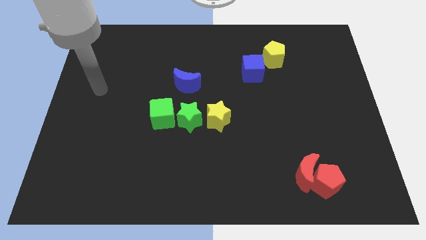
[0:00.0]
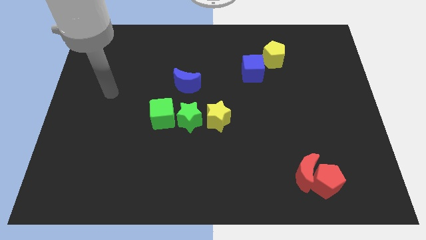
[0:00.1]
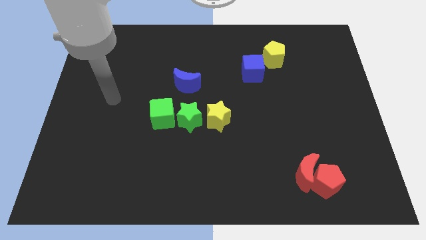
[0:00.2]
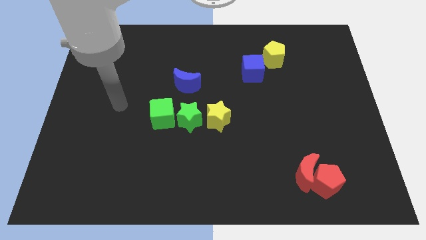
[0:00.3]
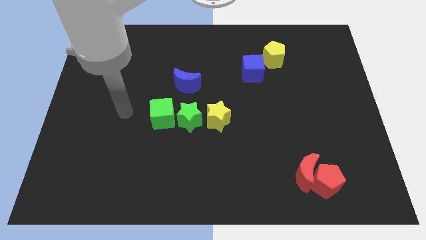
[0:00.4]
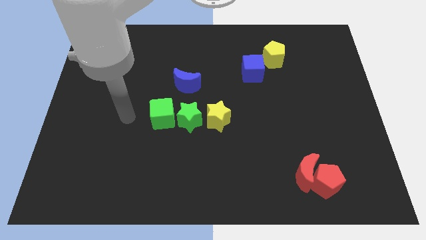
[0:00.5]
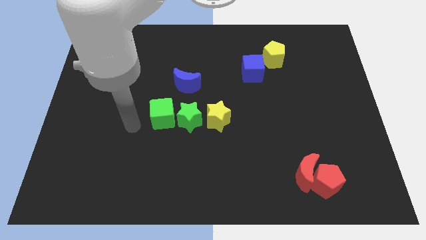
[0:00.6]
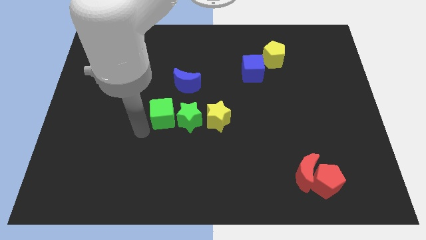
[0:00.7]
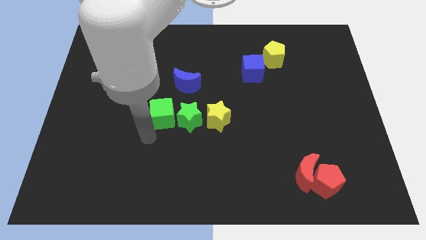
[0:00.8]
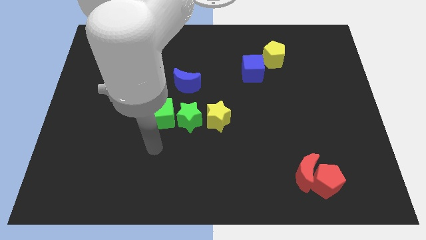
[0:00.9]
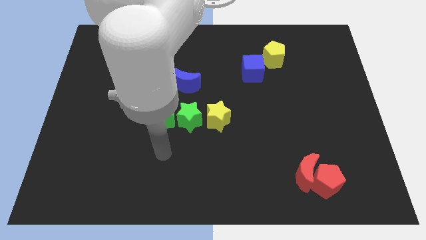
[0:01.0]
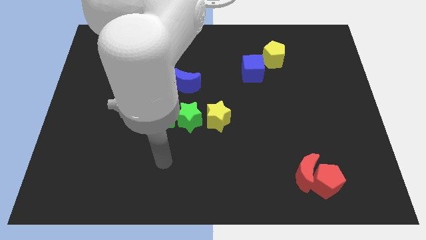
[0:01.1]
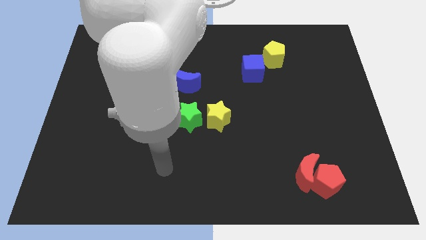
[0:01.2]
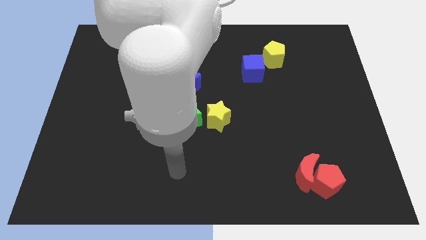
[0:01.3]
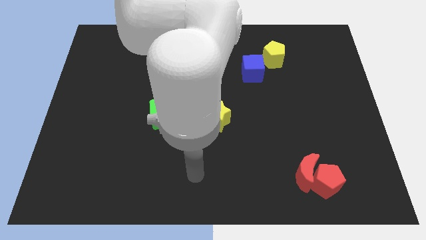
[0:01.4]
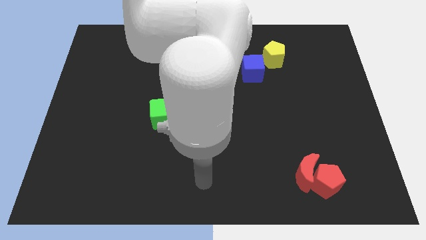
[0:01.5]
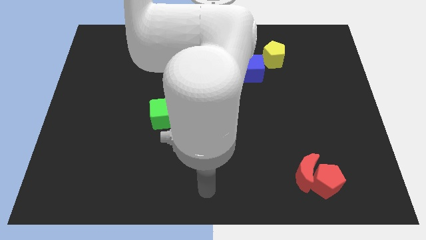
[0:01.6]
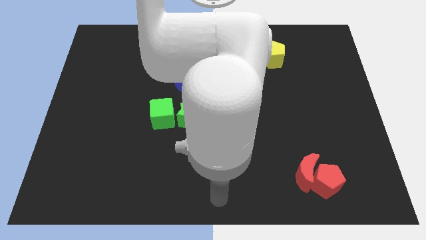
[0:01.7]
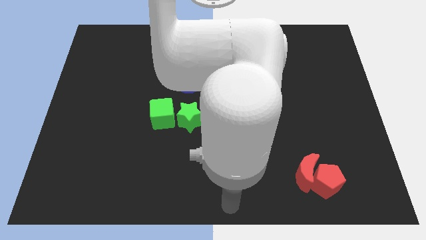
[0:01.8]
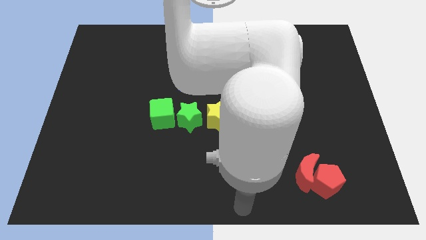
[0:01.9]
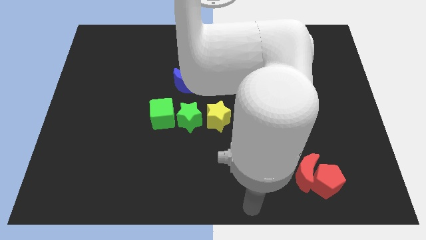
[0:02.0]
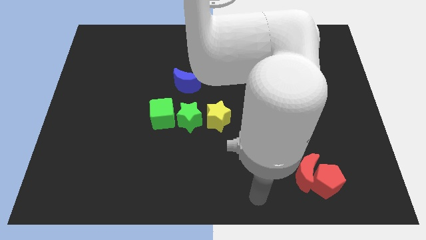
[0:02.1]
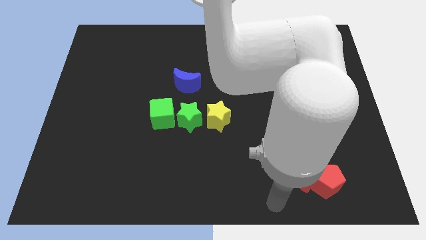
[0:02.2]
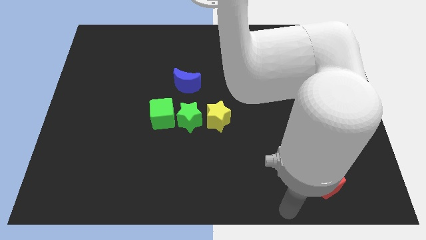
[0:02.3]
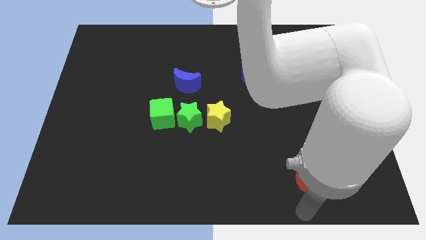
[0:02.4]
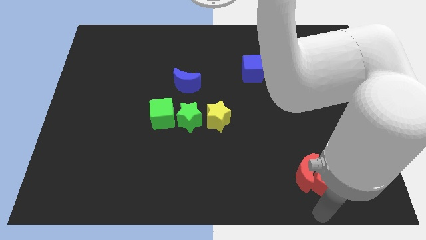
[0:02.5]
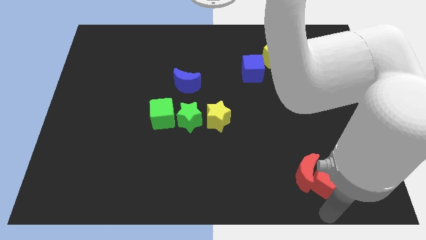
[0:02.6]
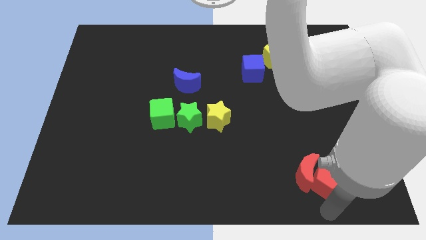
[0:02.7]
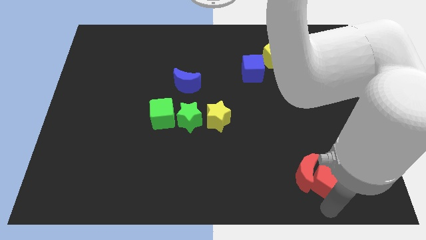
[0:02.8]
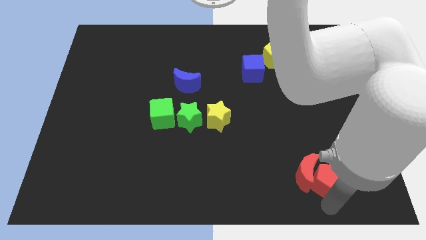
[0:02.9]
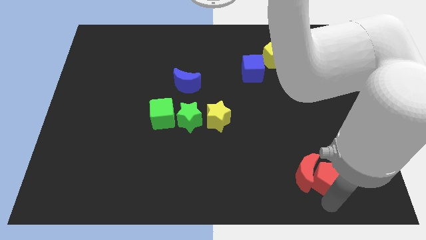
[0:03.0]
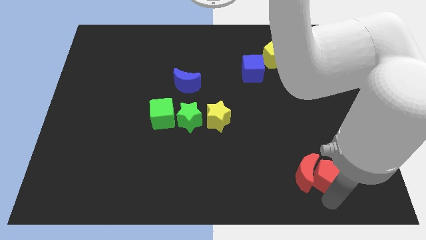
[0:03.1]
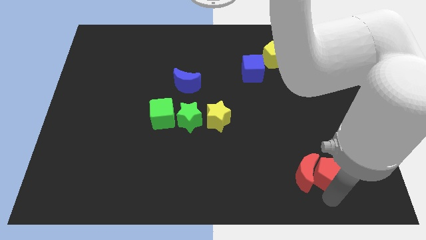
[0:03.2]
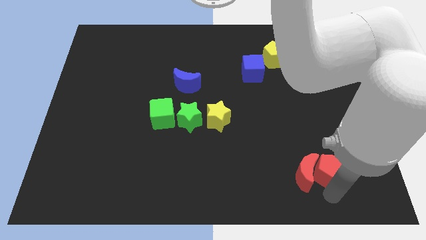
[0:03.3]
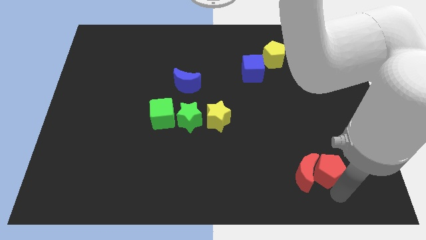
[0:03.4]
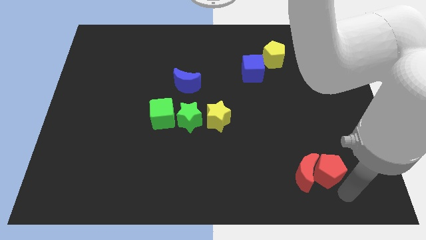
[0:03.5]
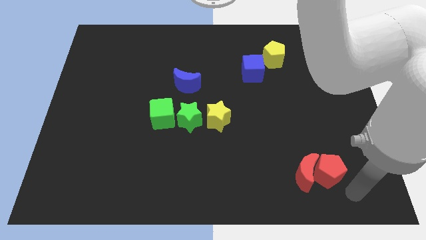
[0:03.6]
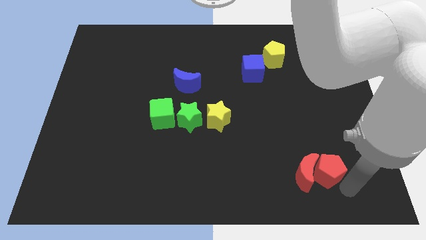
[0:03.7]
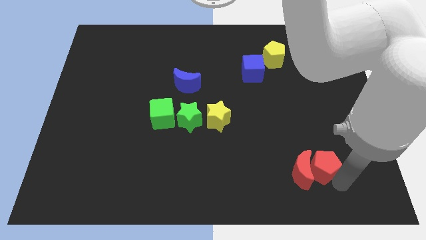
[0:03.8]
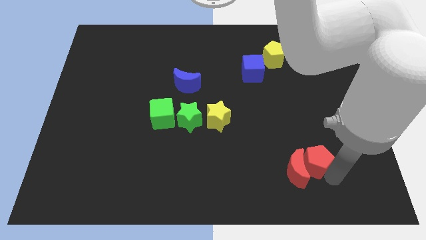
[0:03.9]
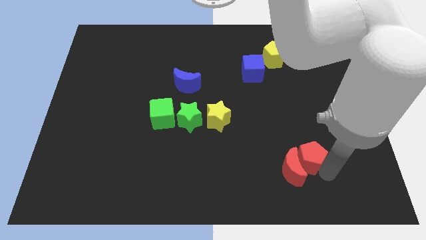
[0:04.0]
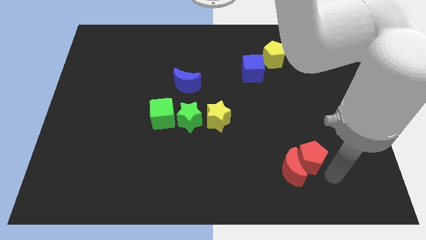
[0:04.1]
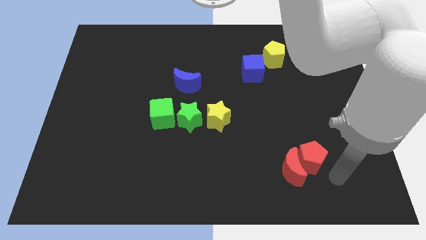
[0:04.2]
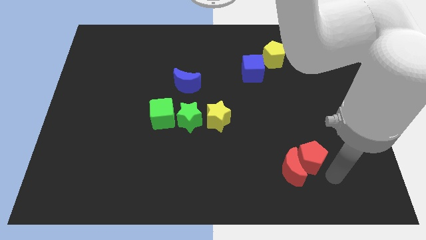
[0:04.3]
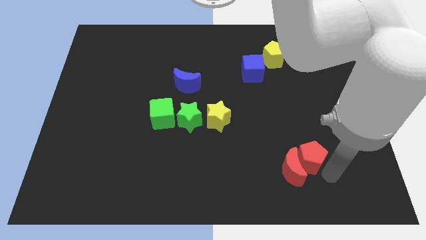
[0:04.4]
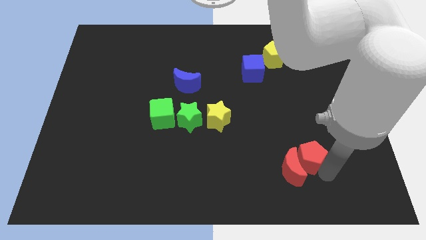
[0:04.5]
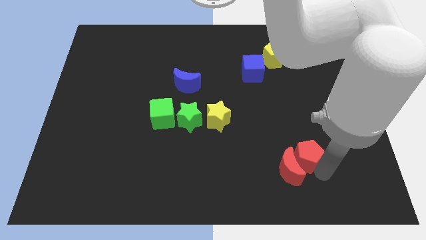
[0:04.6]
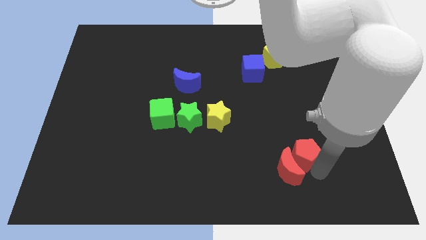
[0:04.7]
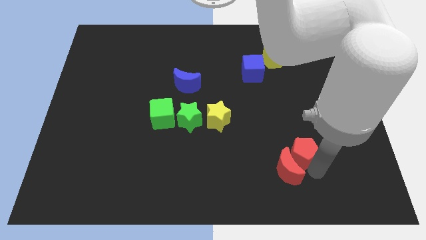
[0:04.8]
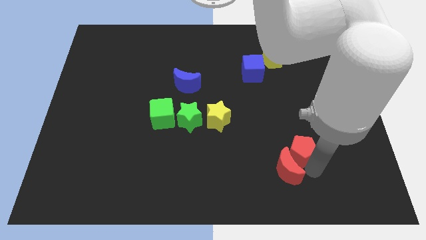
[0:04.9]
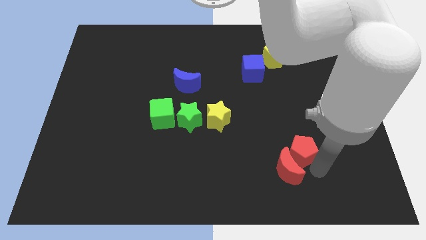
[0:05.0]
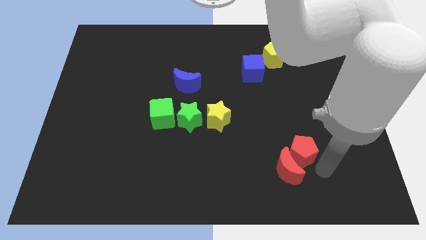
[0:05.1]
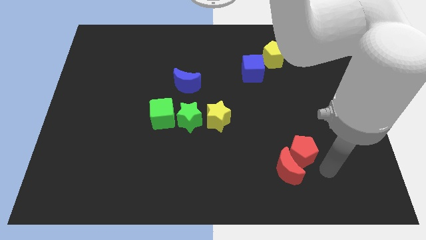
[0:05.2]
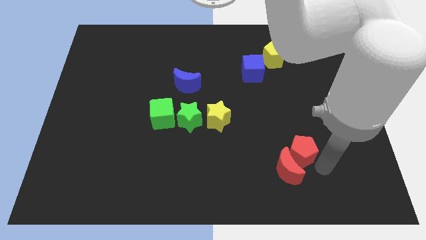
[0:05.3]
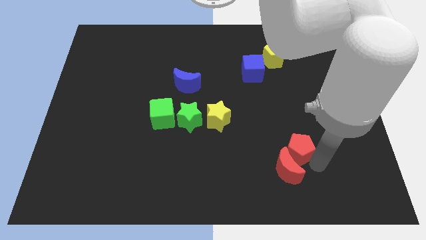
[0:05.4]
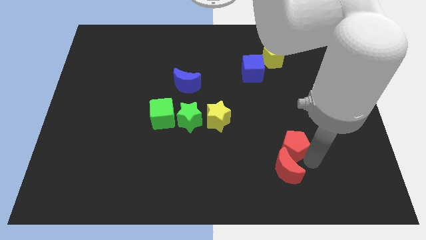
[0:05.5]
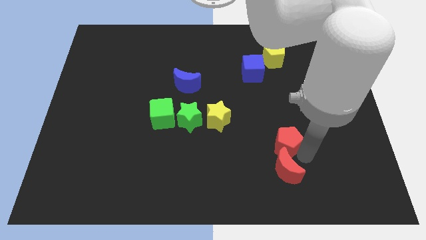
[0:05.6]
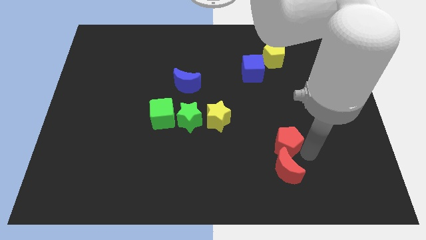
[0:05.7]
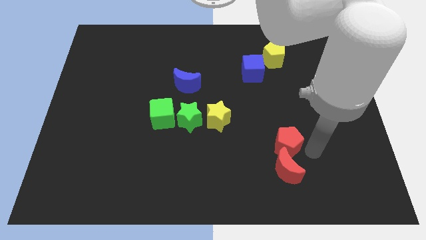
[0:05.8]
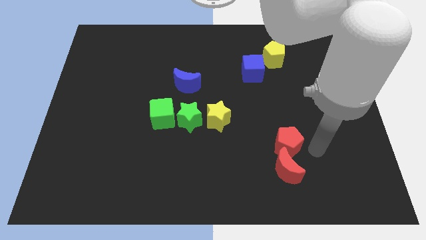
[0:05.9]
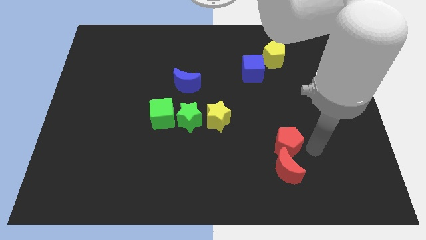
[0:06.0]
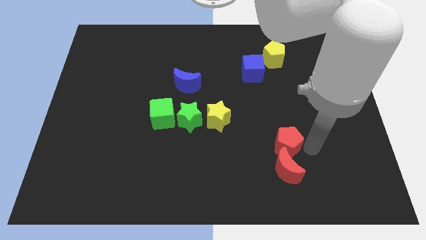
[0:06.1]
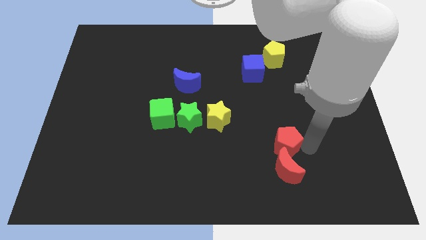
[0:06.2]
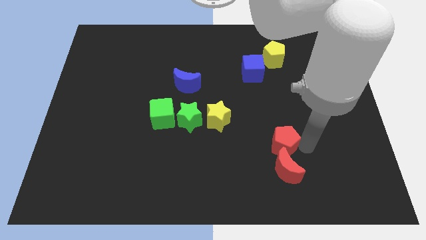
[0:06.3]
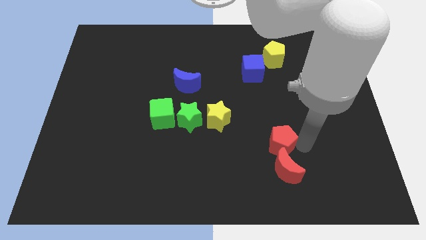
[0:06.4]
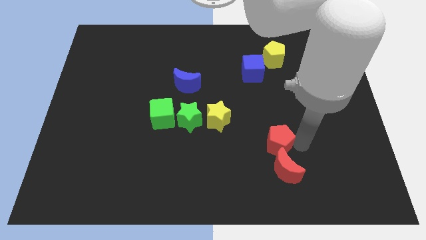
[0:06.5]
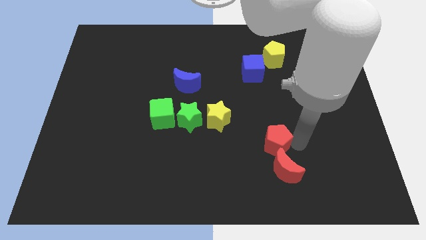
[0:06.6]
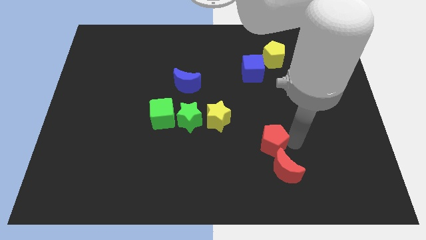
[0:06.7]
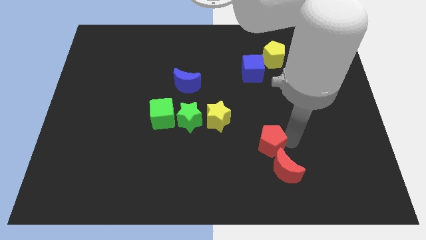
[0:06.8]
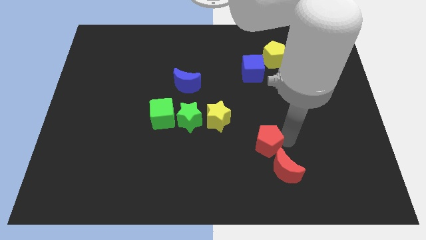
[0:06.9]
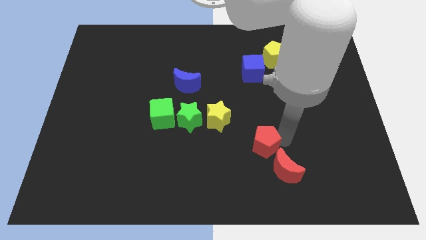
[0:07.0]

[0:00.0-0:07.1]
put the red pentagon to the bottom right side of the yellow star

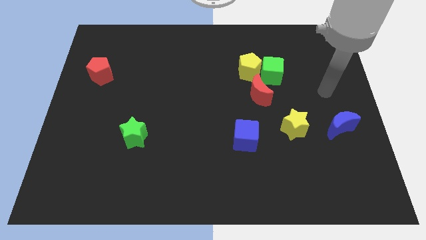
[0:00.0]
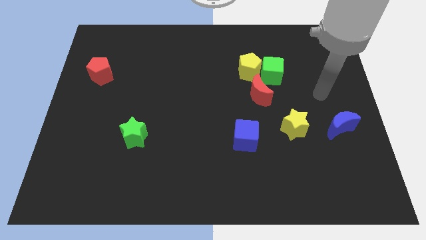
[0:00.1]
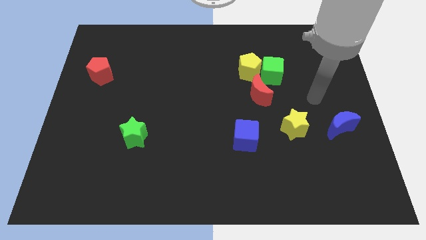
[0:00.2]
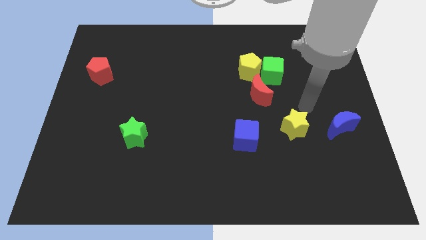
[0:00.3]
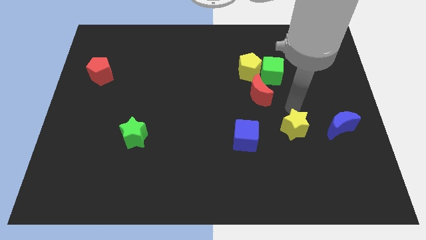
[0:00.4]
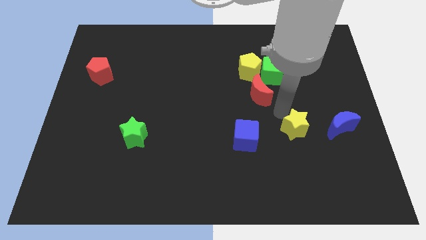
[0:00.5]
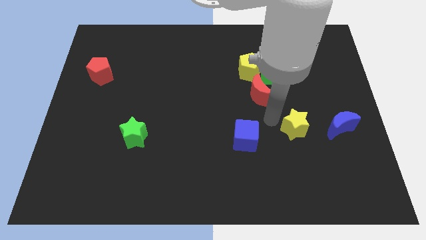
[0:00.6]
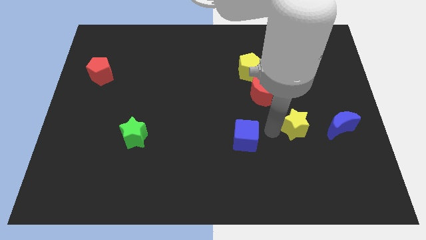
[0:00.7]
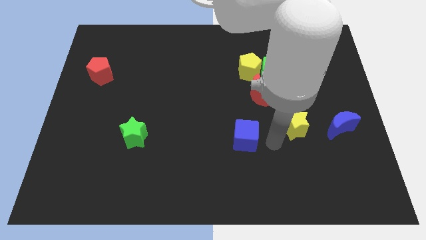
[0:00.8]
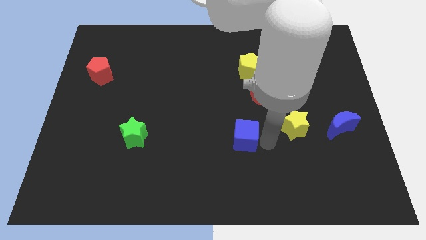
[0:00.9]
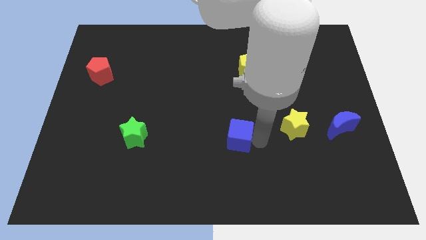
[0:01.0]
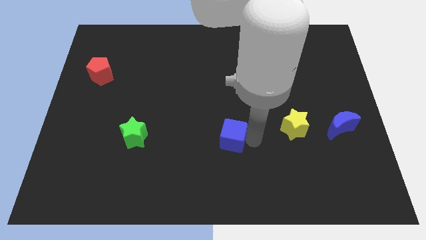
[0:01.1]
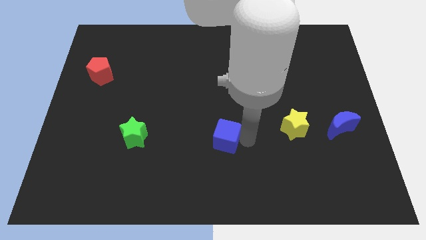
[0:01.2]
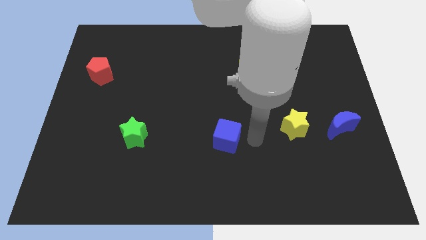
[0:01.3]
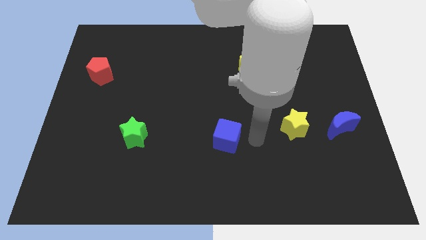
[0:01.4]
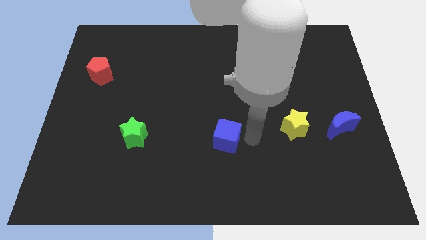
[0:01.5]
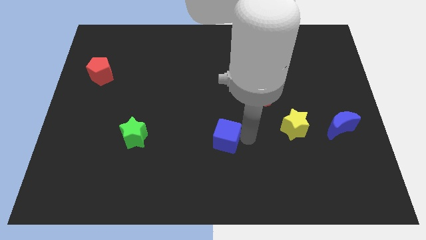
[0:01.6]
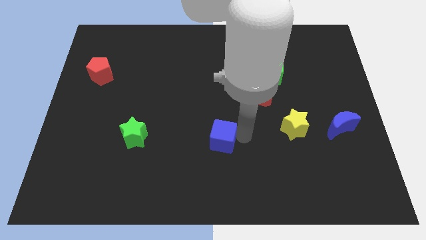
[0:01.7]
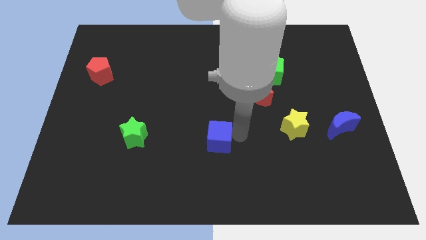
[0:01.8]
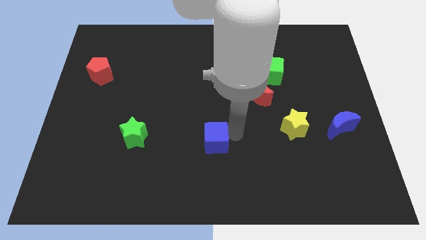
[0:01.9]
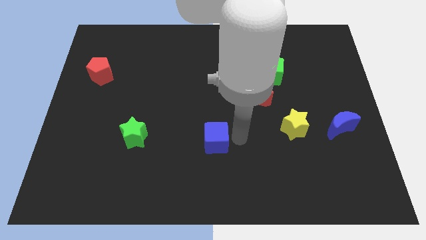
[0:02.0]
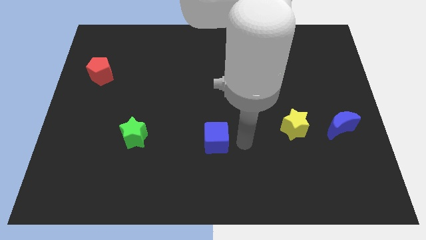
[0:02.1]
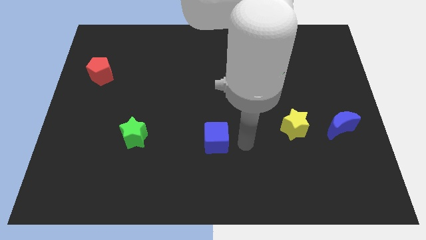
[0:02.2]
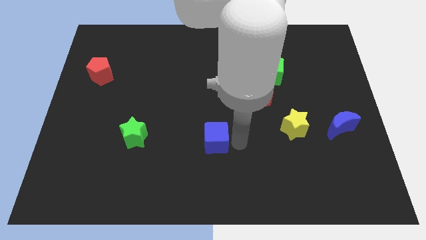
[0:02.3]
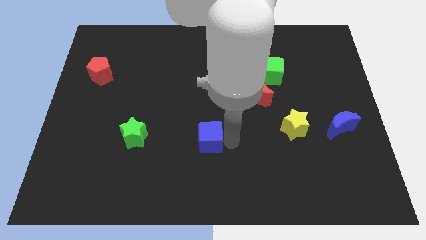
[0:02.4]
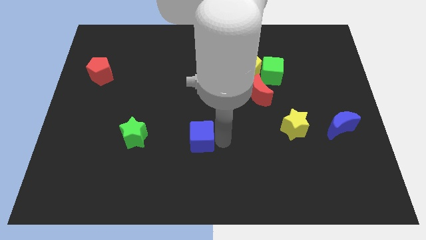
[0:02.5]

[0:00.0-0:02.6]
push the blue cube just right of the green star
